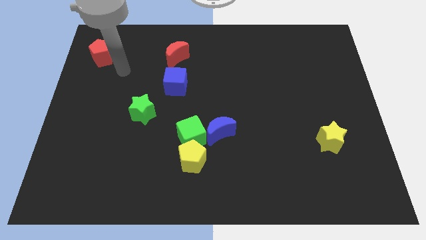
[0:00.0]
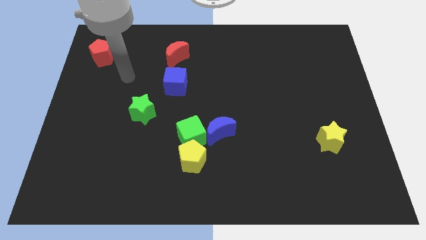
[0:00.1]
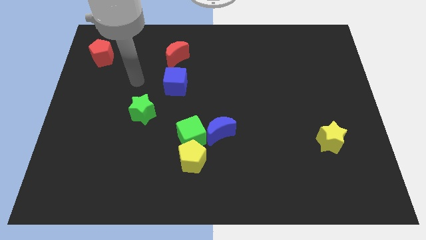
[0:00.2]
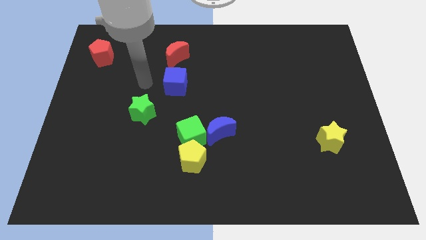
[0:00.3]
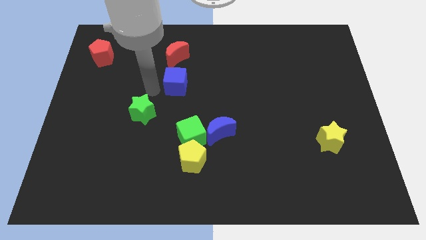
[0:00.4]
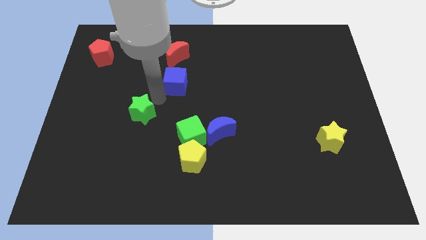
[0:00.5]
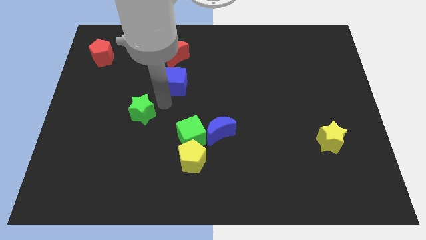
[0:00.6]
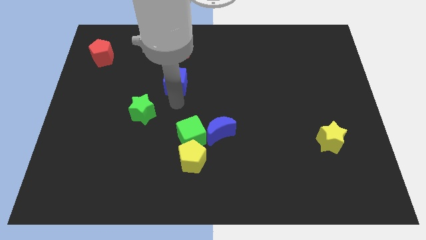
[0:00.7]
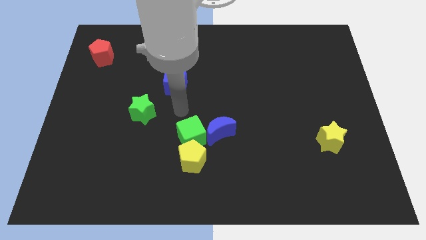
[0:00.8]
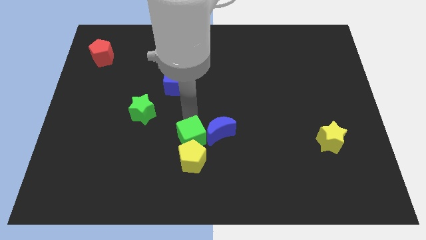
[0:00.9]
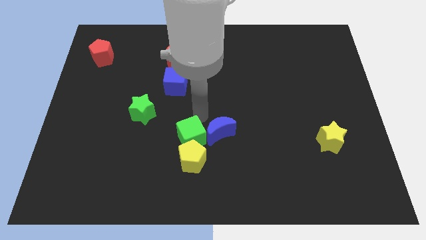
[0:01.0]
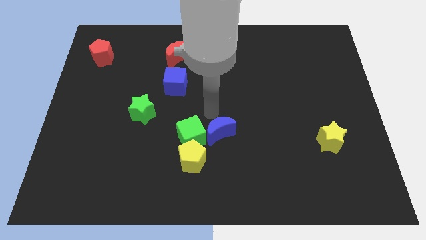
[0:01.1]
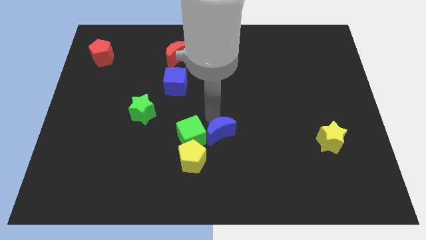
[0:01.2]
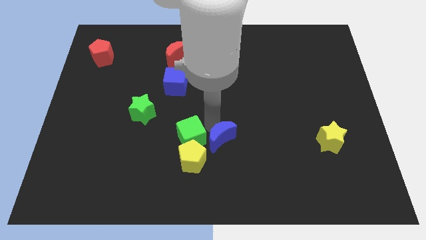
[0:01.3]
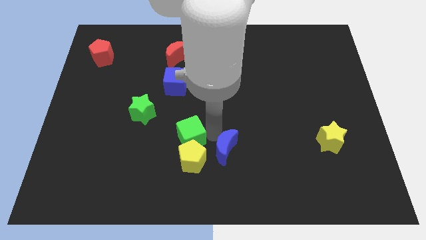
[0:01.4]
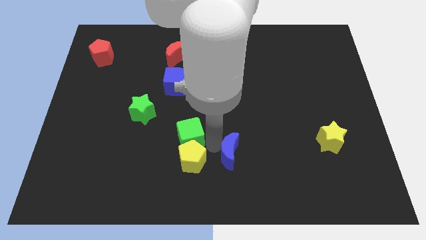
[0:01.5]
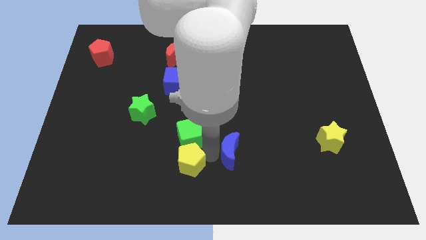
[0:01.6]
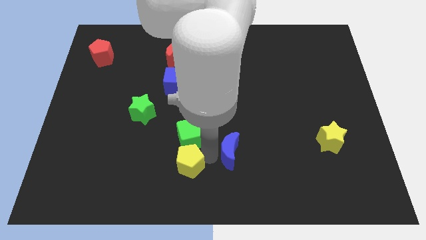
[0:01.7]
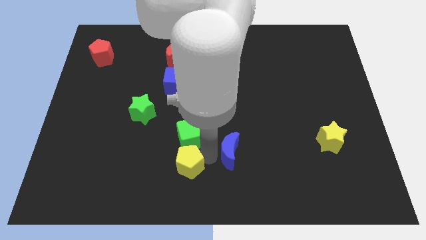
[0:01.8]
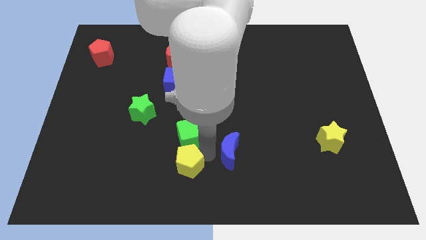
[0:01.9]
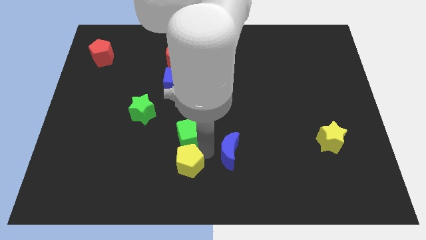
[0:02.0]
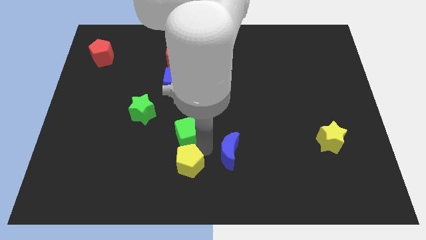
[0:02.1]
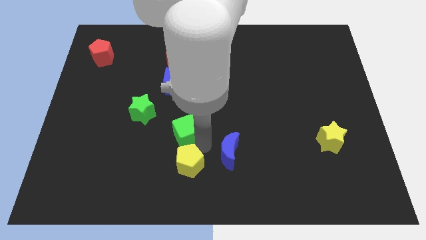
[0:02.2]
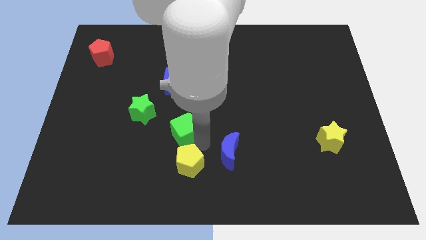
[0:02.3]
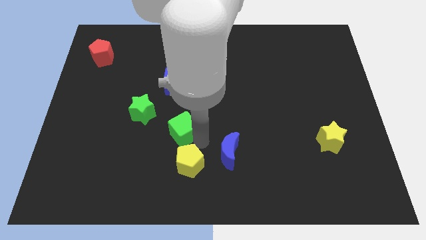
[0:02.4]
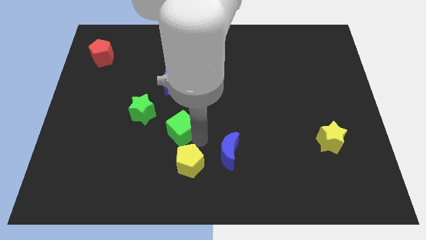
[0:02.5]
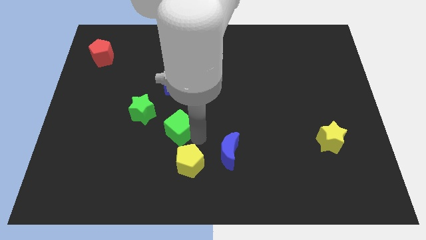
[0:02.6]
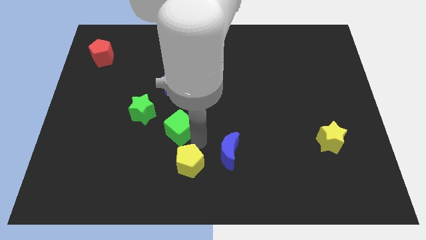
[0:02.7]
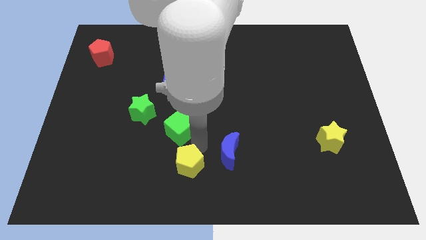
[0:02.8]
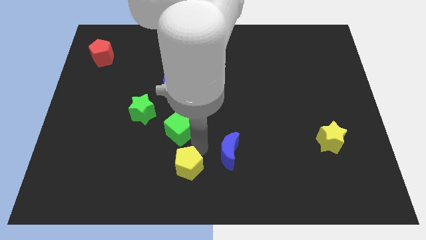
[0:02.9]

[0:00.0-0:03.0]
separate the green cube from the yellow pentagon and blue moon

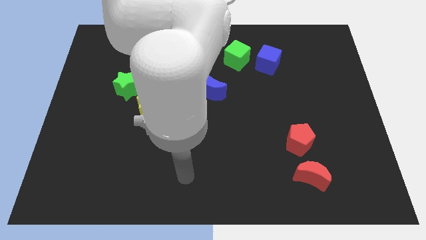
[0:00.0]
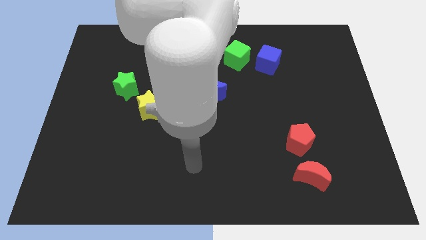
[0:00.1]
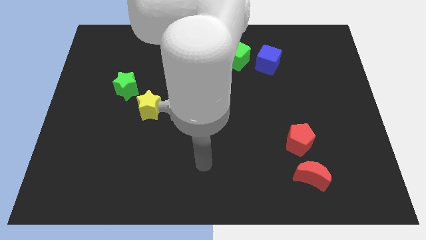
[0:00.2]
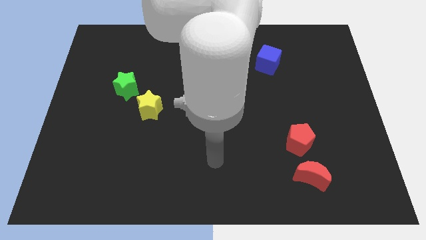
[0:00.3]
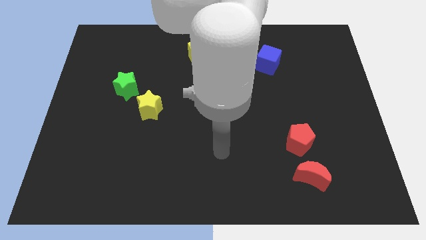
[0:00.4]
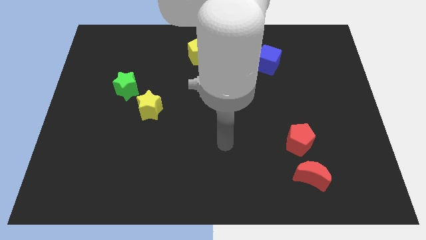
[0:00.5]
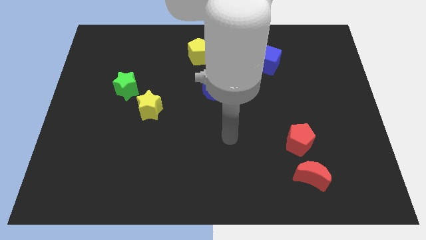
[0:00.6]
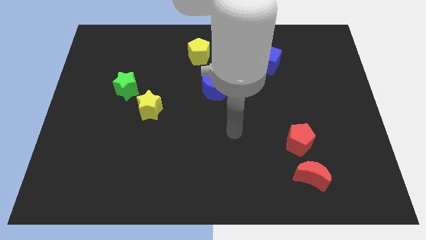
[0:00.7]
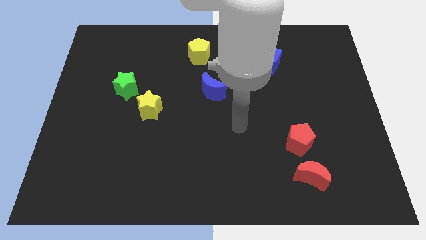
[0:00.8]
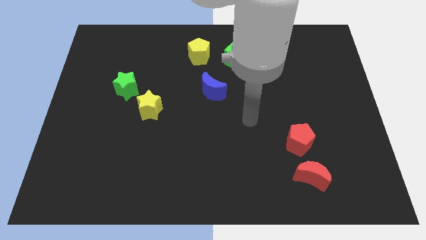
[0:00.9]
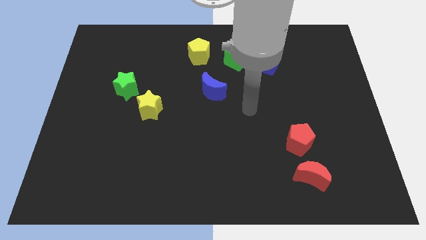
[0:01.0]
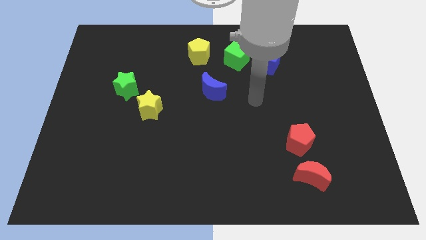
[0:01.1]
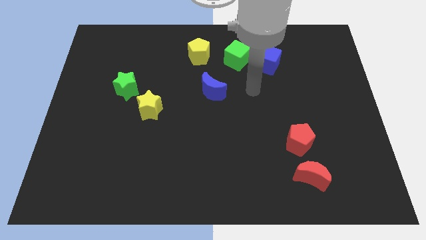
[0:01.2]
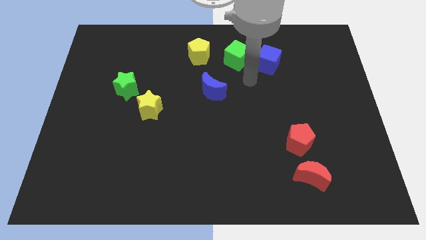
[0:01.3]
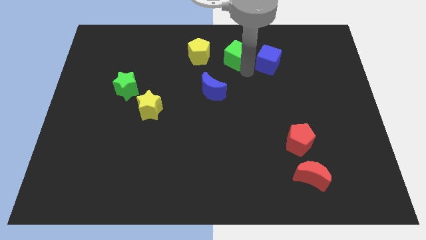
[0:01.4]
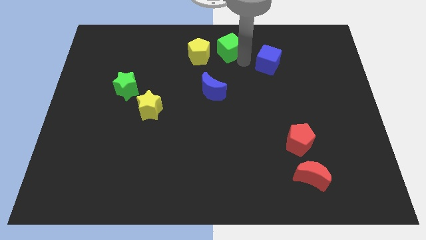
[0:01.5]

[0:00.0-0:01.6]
move the blue cube away from the green cube

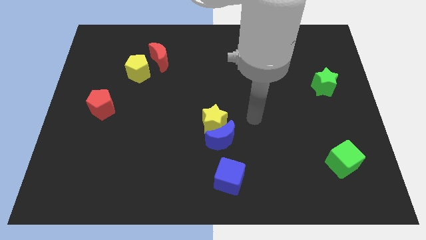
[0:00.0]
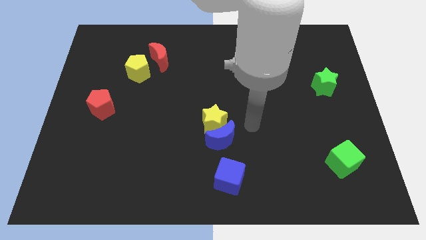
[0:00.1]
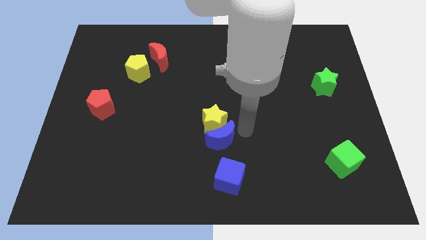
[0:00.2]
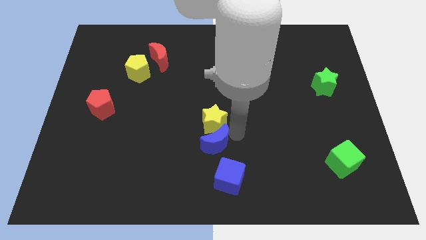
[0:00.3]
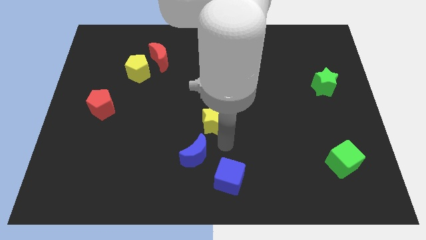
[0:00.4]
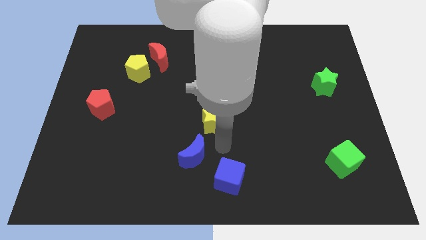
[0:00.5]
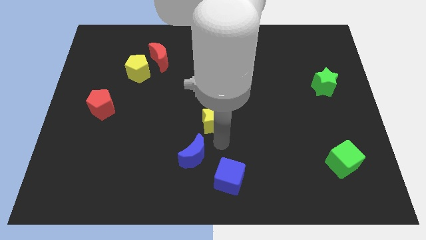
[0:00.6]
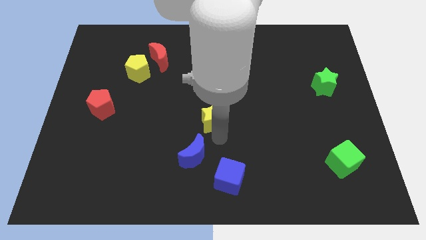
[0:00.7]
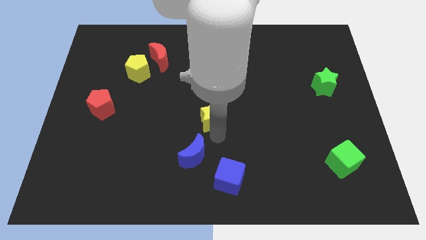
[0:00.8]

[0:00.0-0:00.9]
move the yellow star away from the blue moon

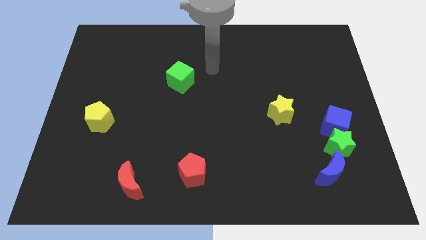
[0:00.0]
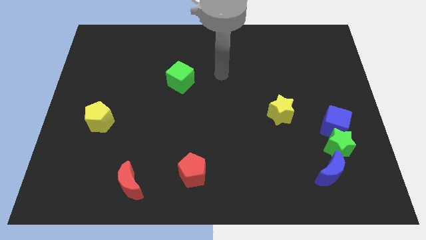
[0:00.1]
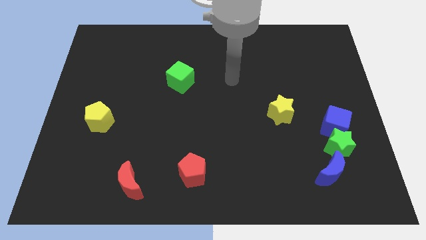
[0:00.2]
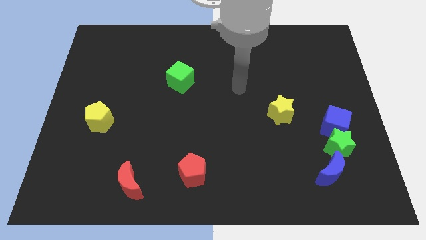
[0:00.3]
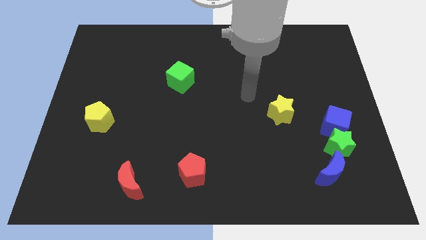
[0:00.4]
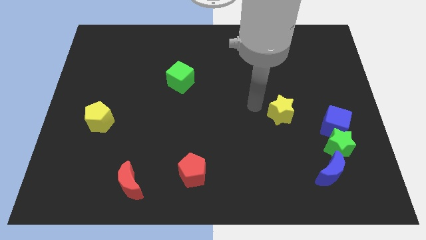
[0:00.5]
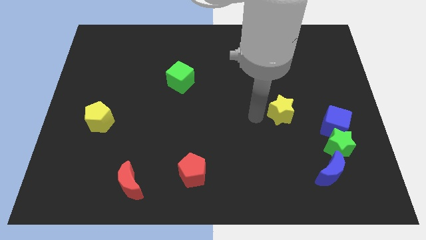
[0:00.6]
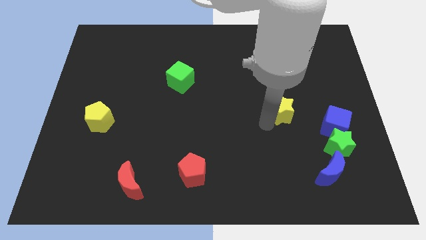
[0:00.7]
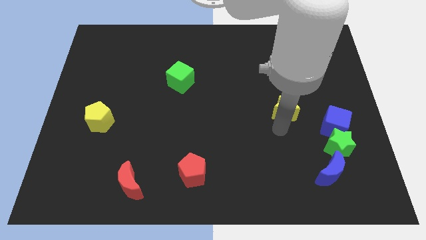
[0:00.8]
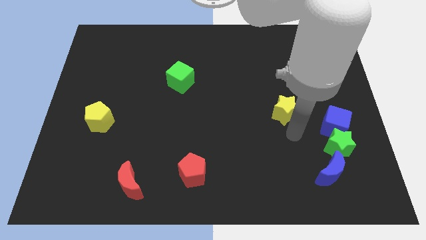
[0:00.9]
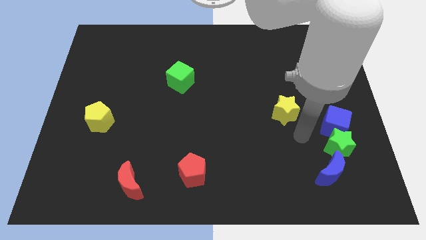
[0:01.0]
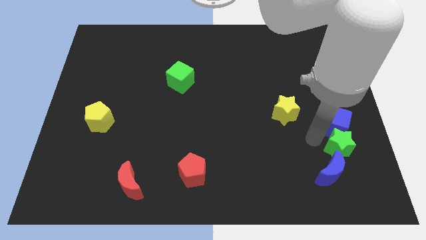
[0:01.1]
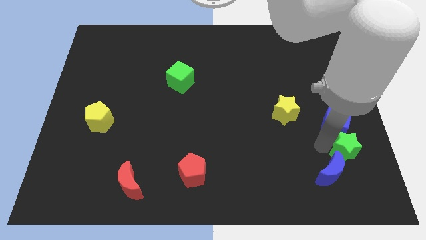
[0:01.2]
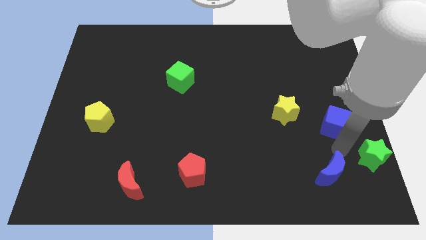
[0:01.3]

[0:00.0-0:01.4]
separate the blue cube from the green star

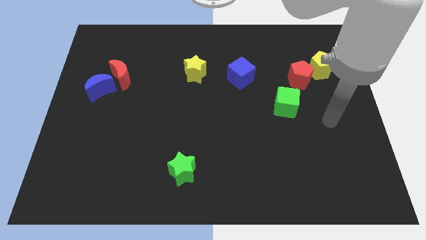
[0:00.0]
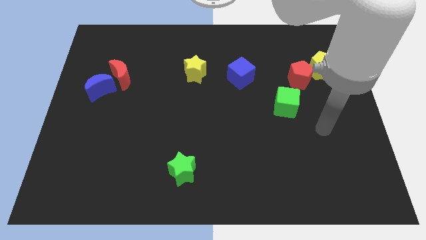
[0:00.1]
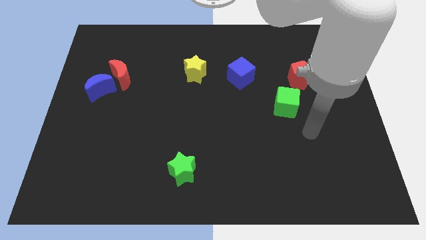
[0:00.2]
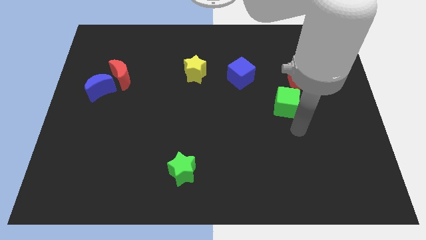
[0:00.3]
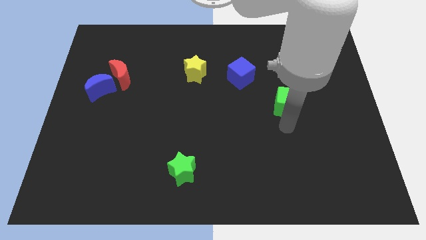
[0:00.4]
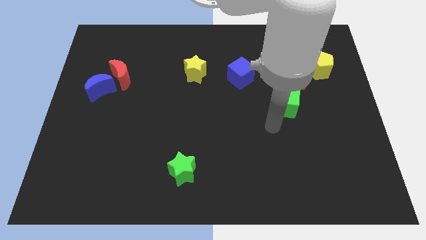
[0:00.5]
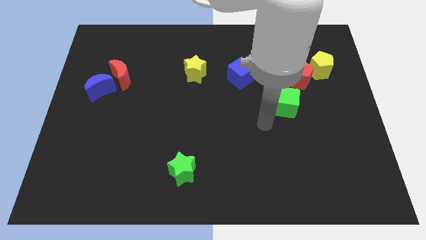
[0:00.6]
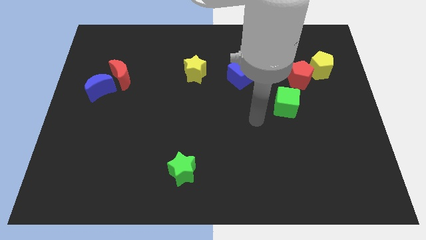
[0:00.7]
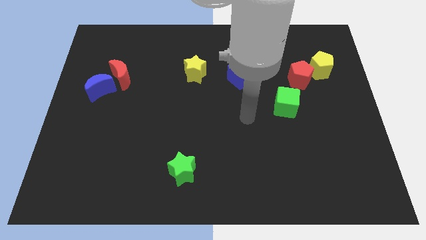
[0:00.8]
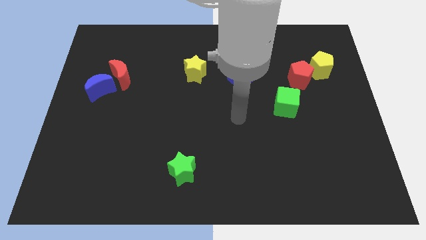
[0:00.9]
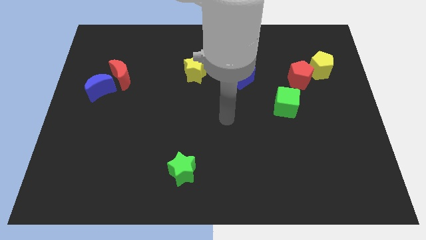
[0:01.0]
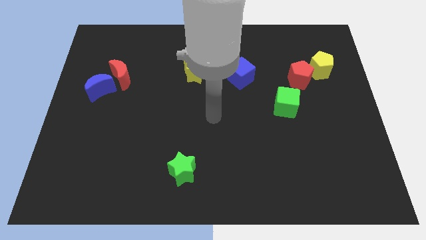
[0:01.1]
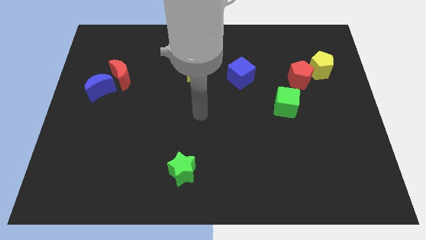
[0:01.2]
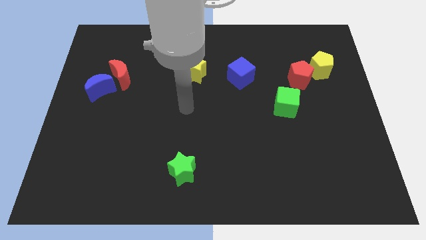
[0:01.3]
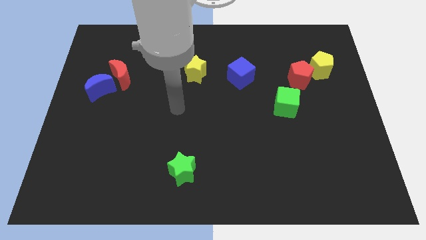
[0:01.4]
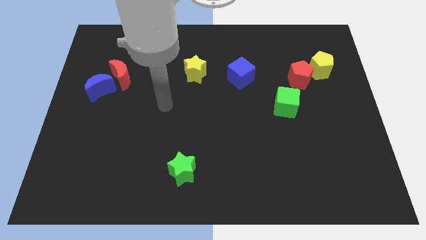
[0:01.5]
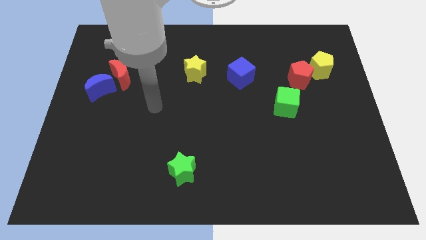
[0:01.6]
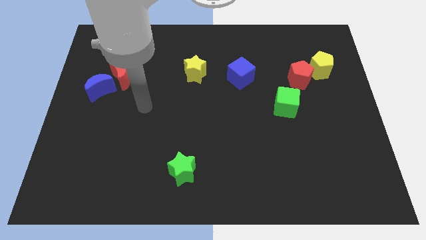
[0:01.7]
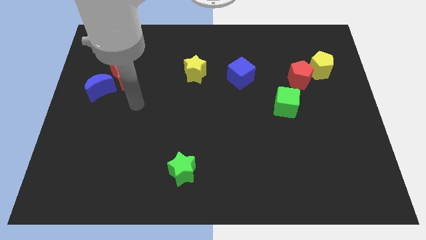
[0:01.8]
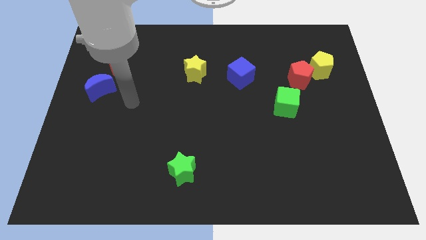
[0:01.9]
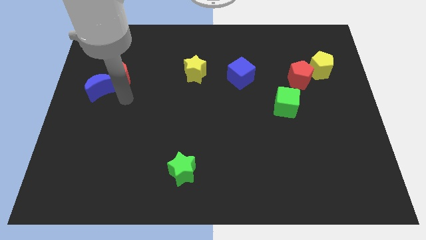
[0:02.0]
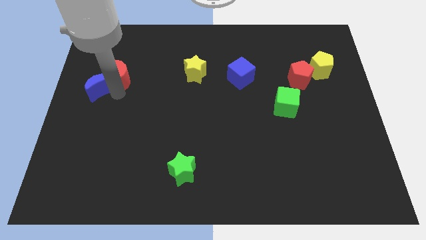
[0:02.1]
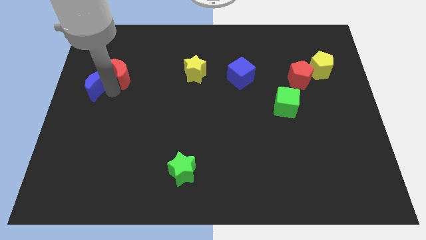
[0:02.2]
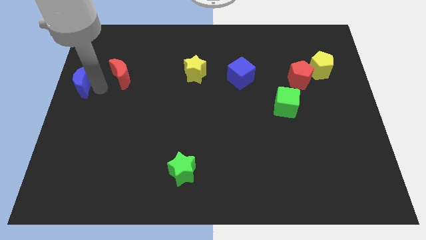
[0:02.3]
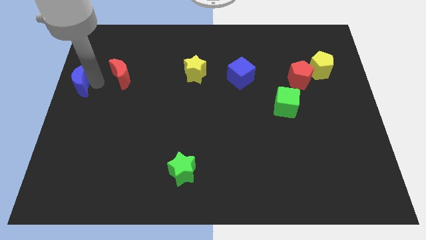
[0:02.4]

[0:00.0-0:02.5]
move the red moon away from the blue moon
